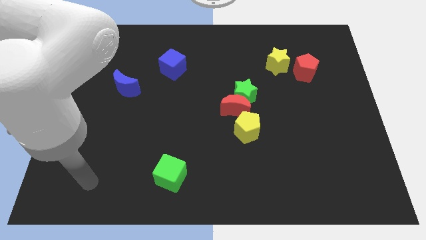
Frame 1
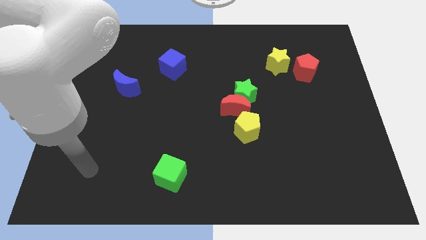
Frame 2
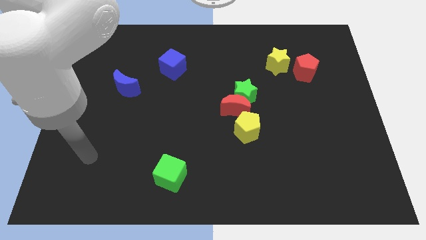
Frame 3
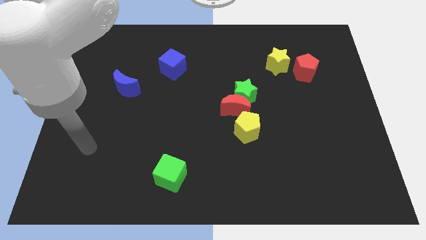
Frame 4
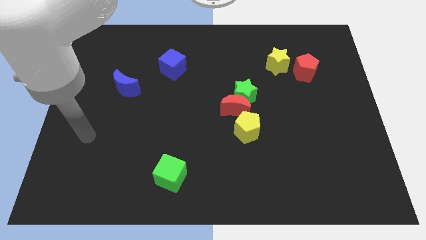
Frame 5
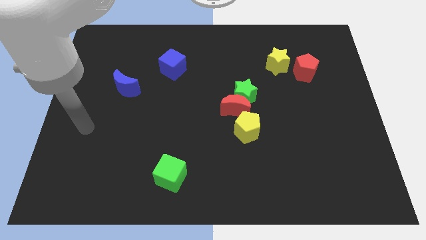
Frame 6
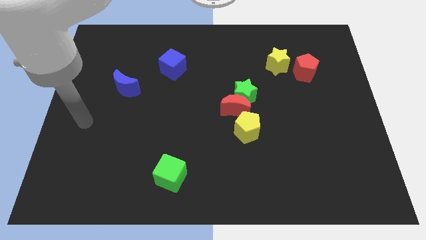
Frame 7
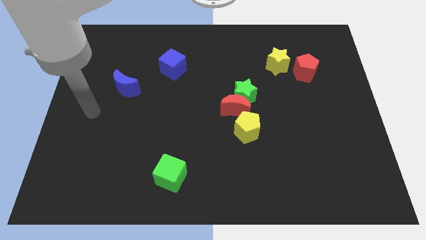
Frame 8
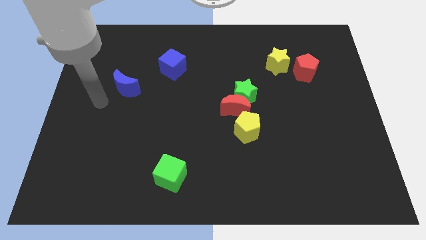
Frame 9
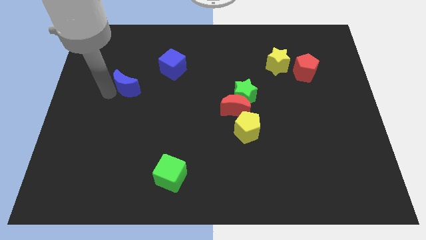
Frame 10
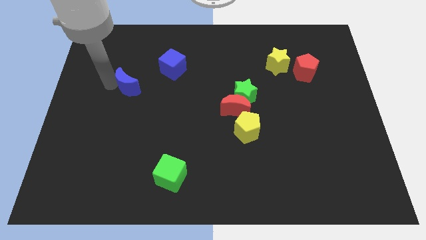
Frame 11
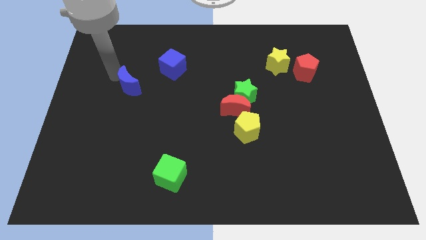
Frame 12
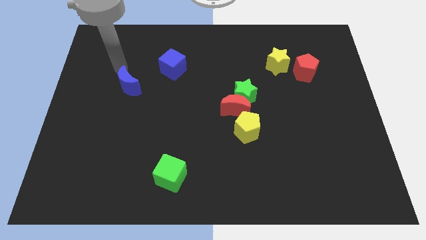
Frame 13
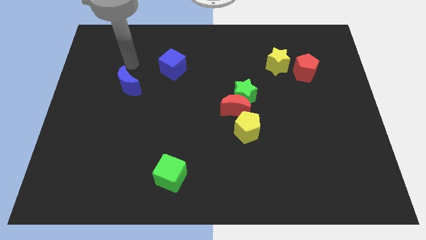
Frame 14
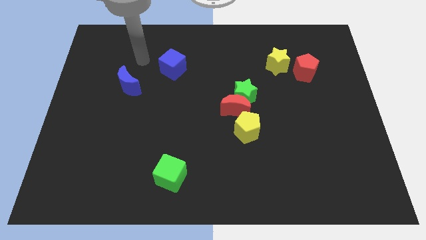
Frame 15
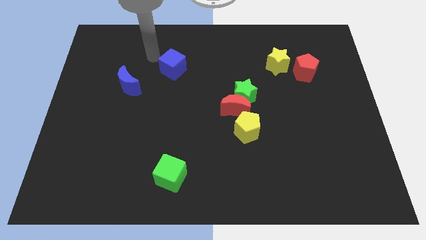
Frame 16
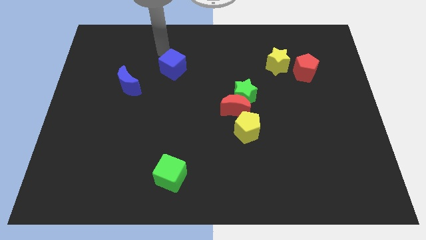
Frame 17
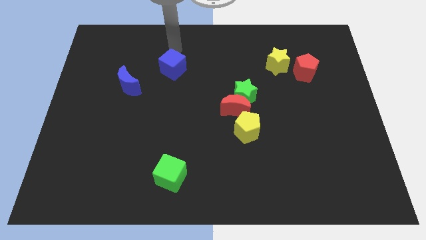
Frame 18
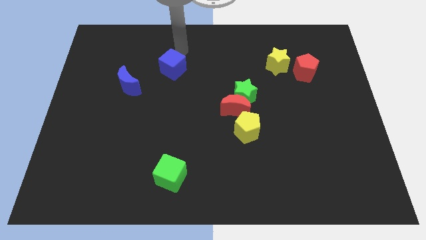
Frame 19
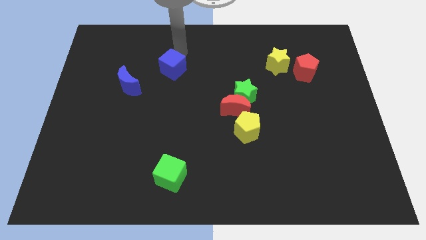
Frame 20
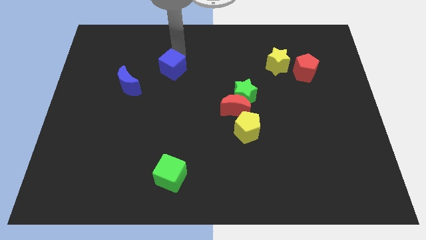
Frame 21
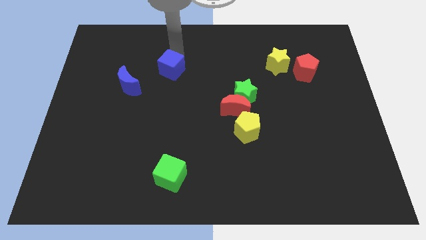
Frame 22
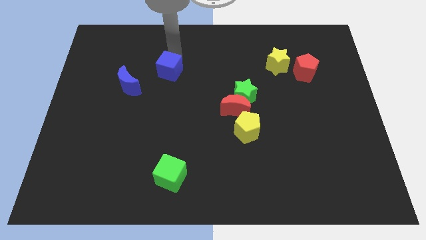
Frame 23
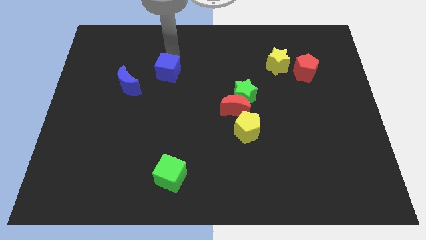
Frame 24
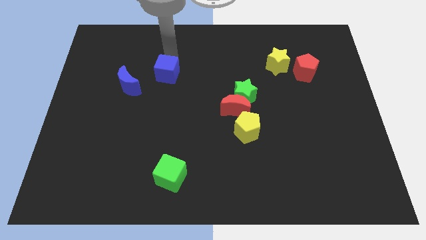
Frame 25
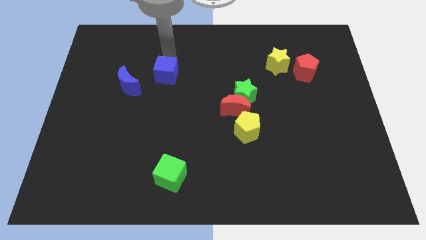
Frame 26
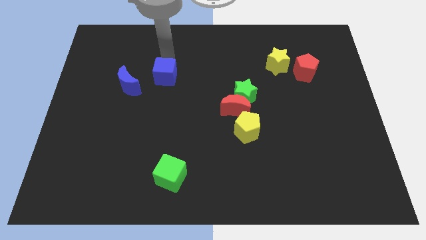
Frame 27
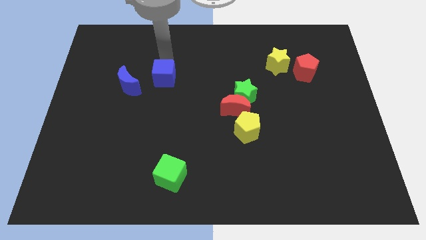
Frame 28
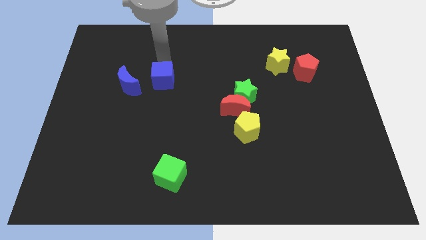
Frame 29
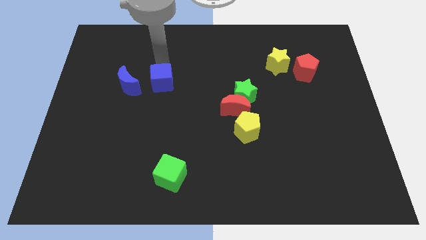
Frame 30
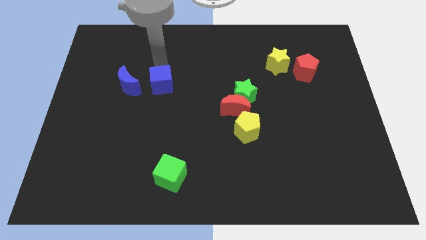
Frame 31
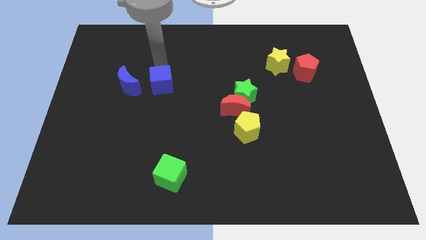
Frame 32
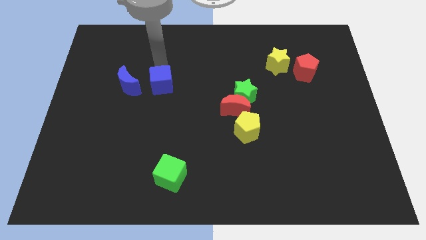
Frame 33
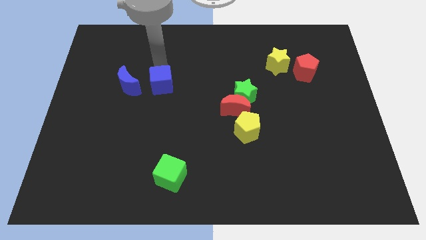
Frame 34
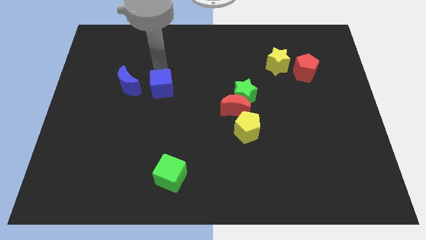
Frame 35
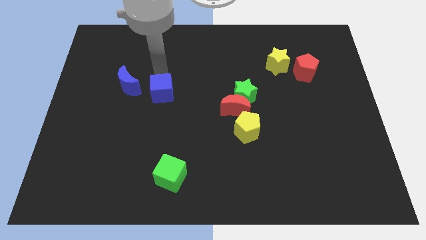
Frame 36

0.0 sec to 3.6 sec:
push the blue cube down somewhat

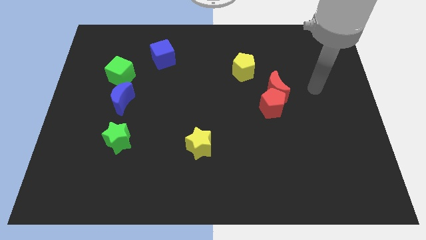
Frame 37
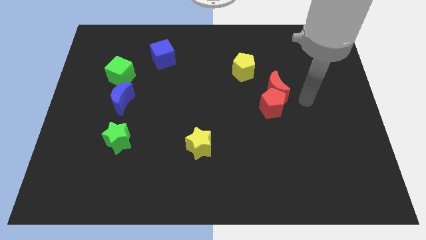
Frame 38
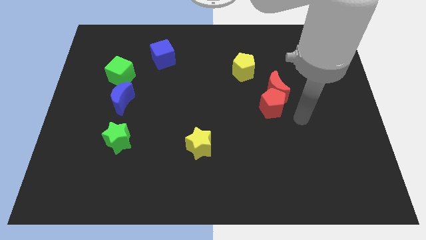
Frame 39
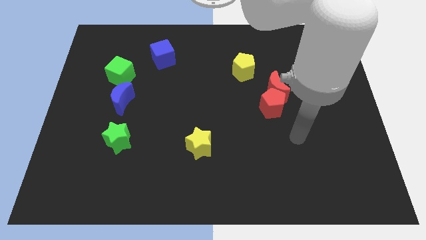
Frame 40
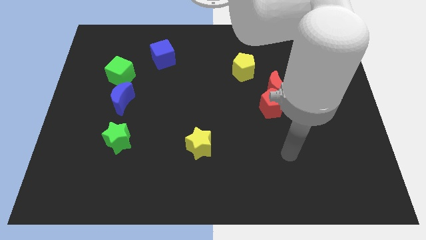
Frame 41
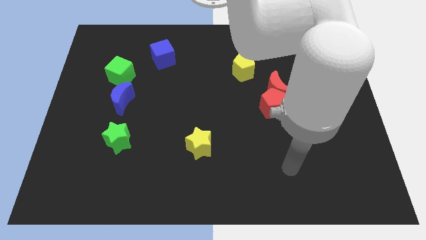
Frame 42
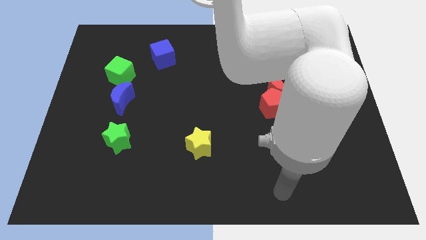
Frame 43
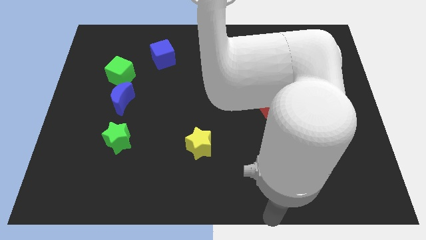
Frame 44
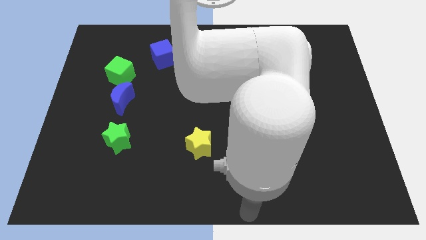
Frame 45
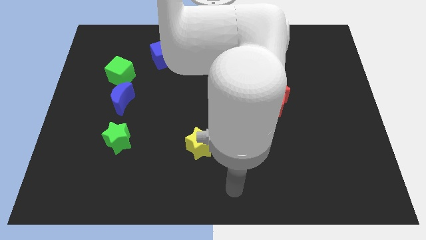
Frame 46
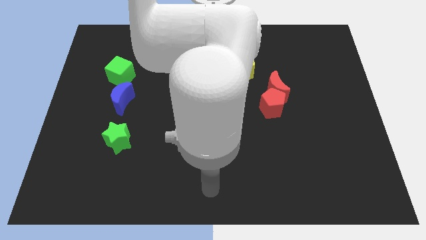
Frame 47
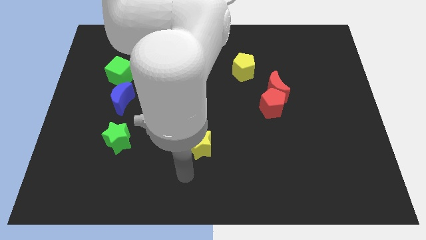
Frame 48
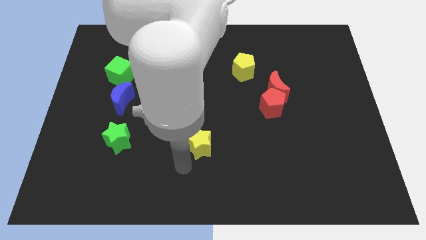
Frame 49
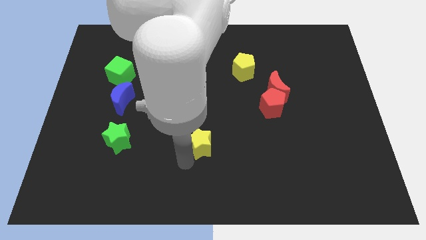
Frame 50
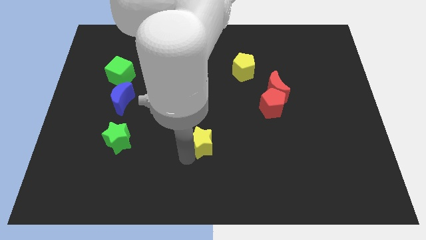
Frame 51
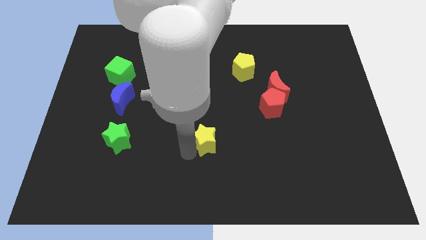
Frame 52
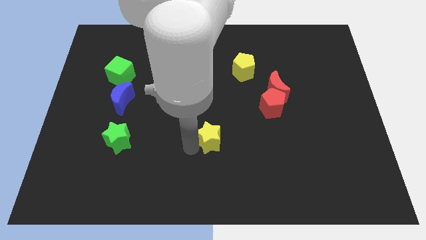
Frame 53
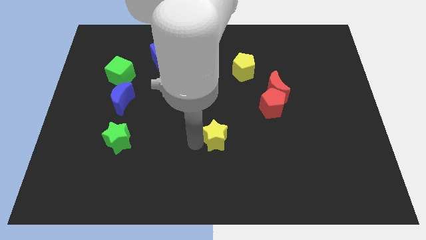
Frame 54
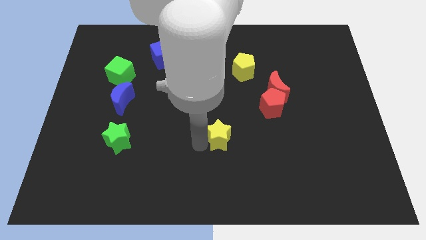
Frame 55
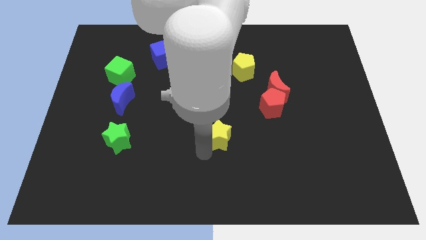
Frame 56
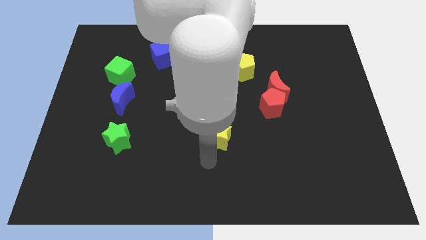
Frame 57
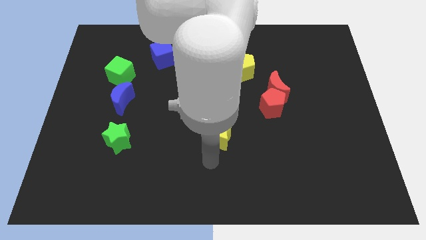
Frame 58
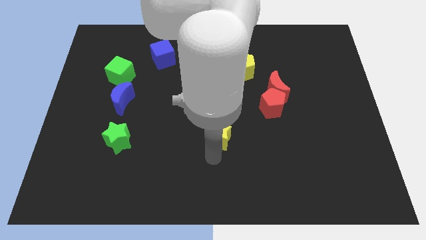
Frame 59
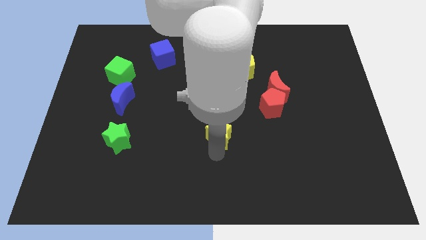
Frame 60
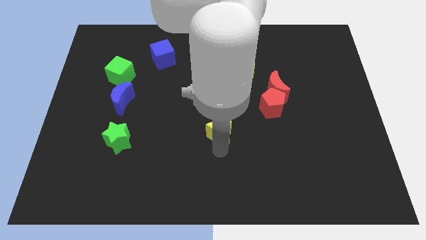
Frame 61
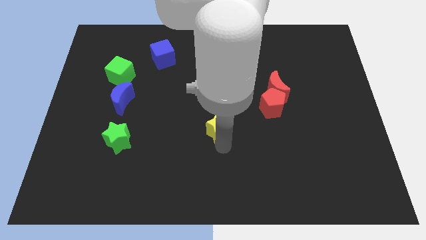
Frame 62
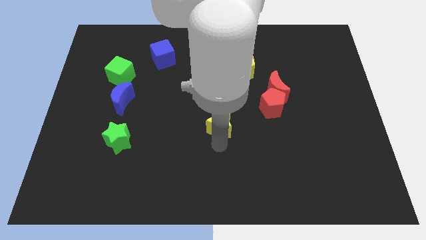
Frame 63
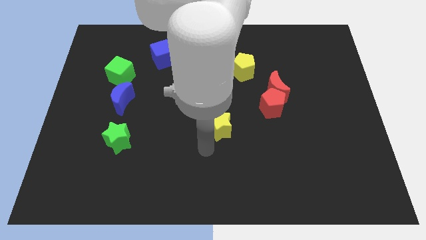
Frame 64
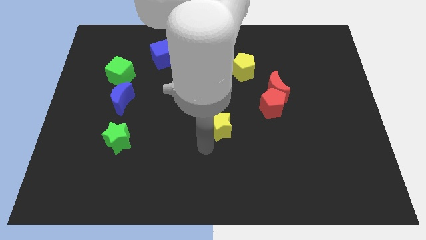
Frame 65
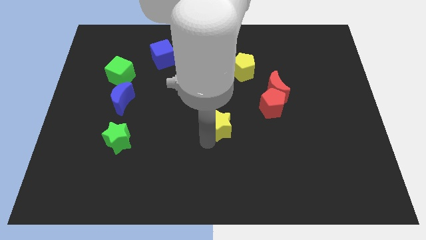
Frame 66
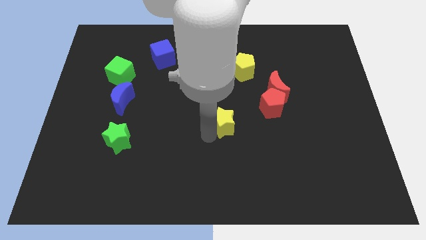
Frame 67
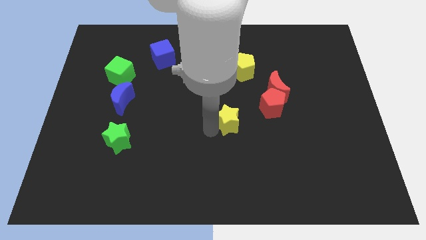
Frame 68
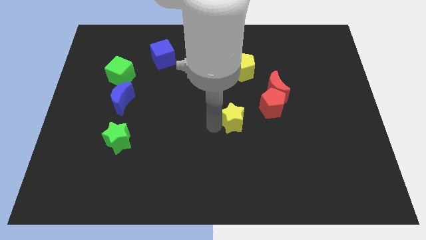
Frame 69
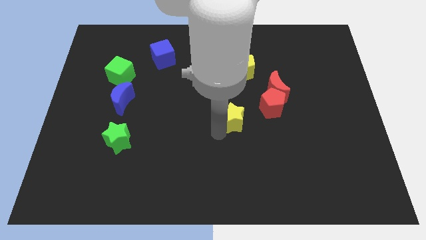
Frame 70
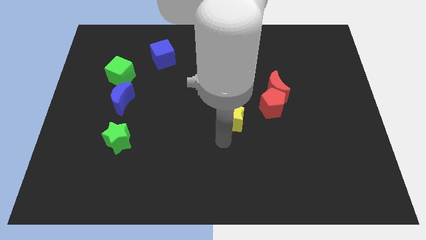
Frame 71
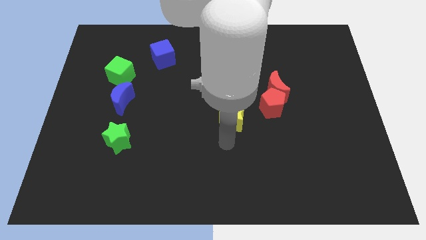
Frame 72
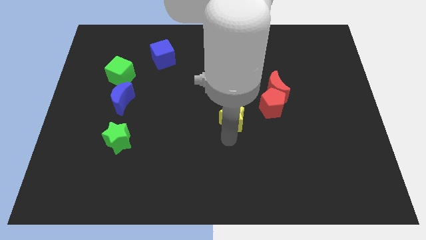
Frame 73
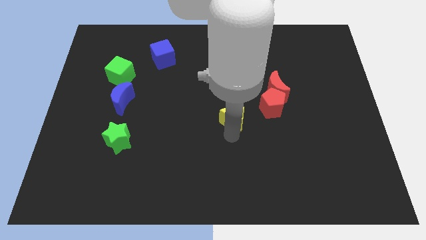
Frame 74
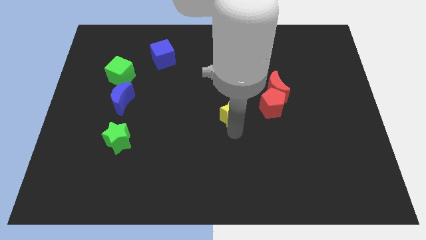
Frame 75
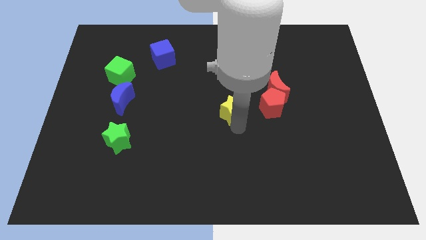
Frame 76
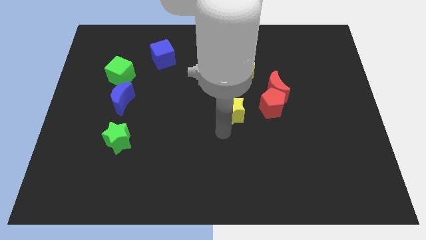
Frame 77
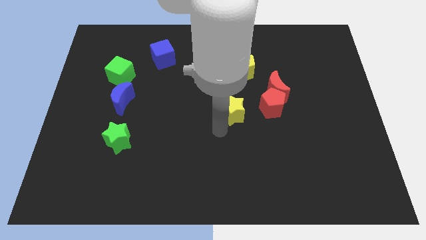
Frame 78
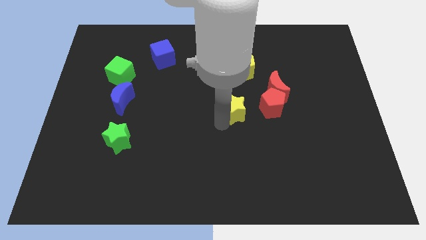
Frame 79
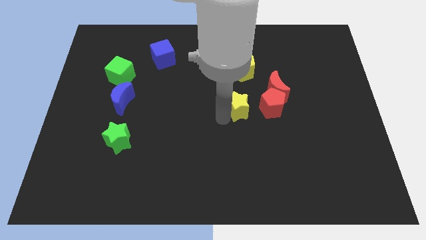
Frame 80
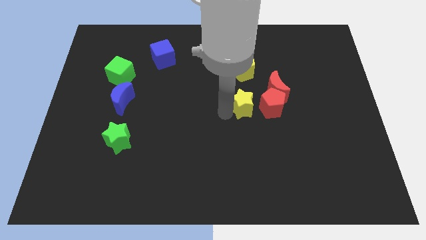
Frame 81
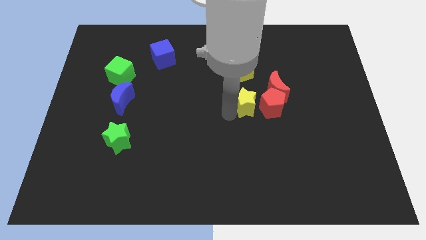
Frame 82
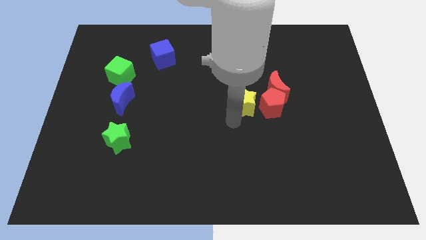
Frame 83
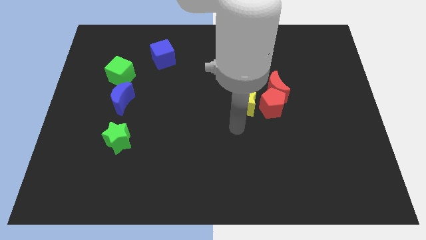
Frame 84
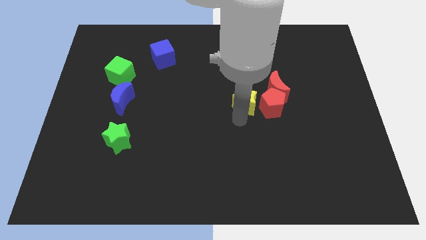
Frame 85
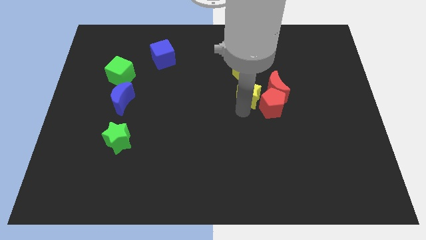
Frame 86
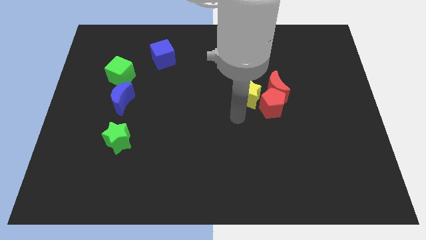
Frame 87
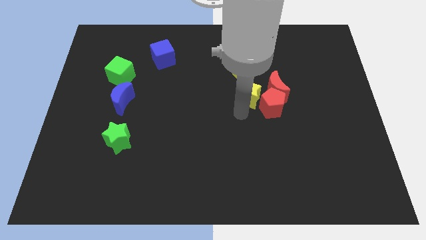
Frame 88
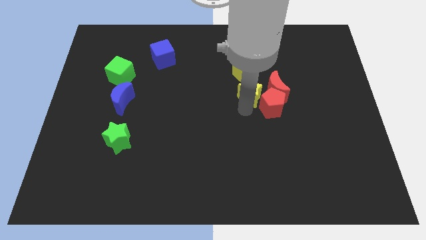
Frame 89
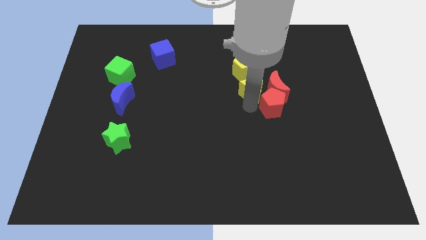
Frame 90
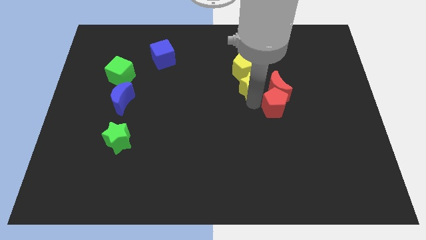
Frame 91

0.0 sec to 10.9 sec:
slide the yellow star upwards and to the right diagonally
